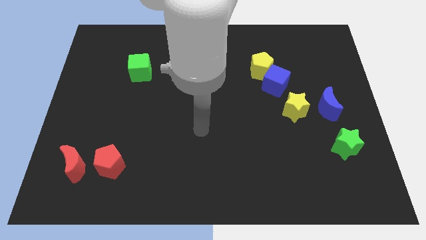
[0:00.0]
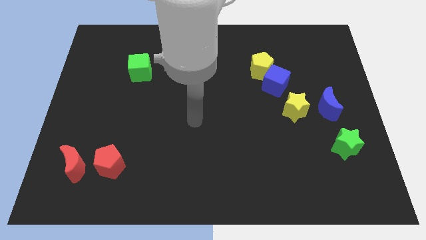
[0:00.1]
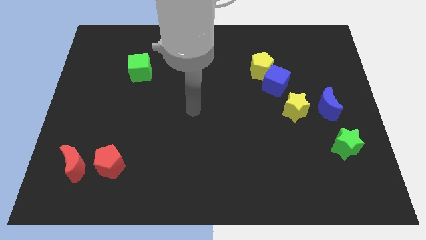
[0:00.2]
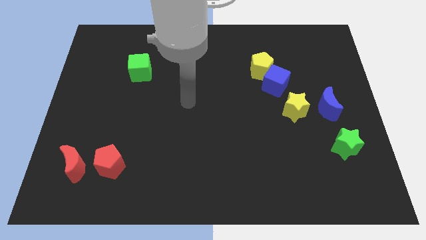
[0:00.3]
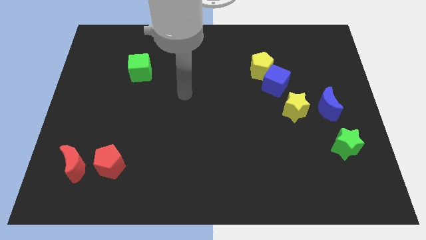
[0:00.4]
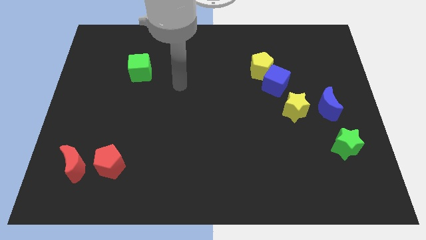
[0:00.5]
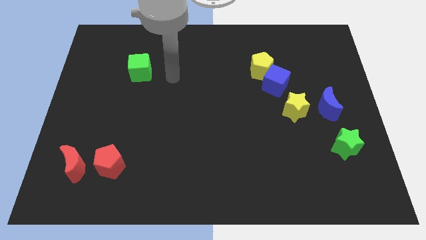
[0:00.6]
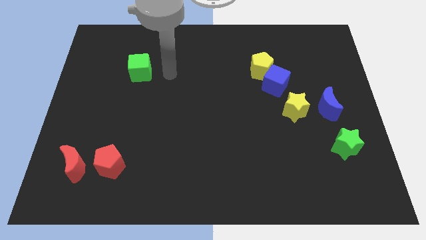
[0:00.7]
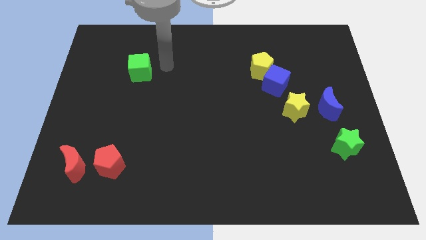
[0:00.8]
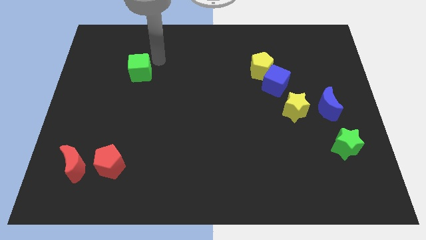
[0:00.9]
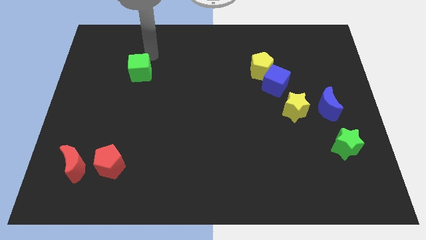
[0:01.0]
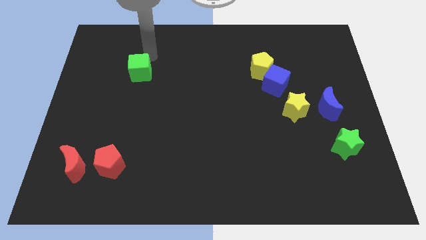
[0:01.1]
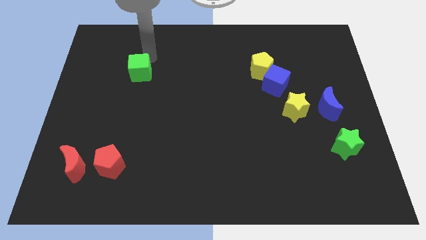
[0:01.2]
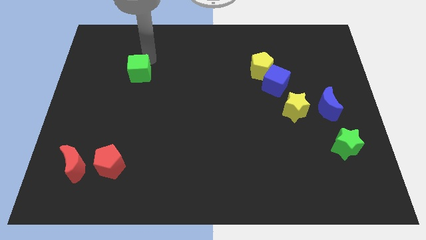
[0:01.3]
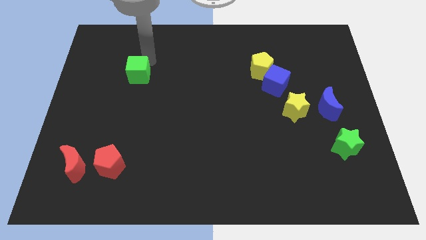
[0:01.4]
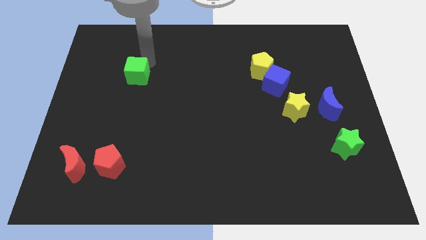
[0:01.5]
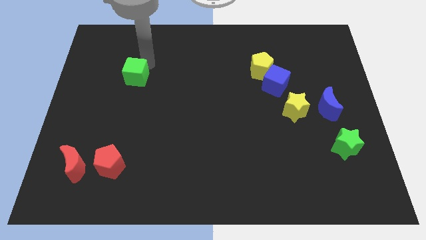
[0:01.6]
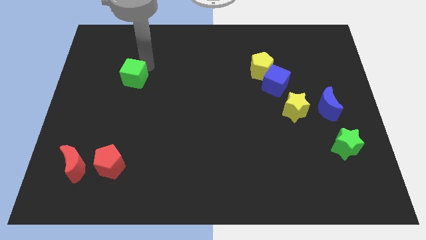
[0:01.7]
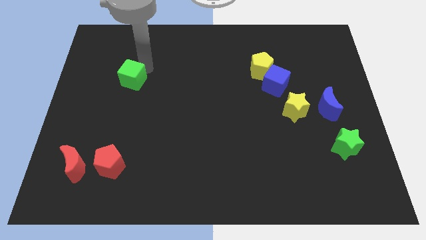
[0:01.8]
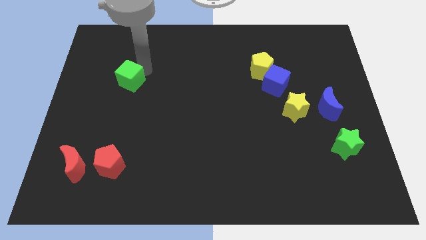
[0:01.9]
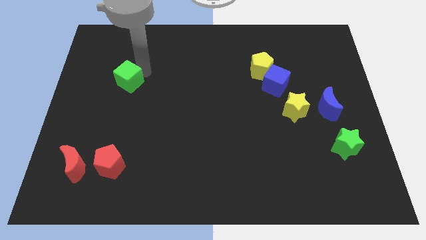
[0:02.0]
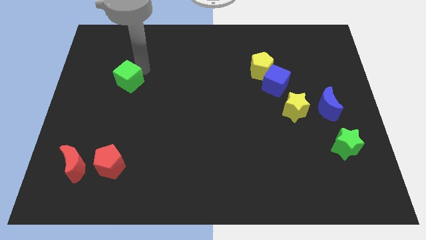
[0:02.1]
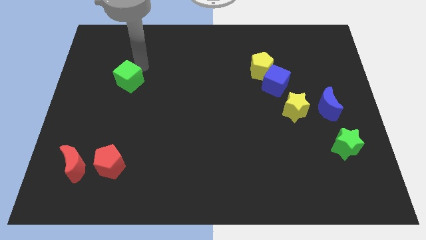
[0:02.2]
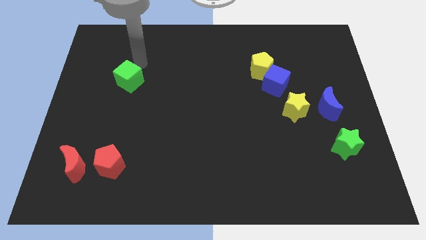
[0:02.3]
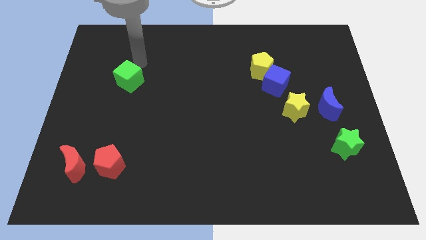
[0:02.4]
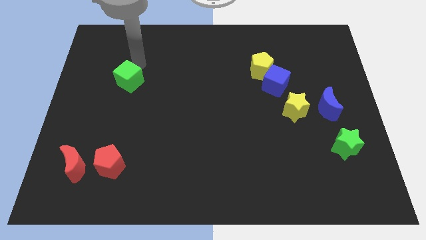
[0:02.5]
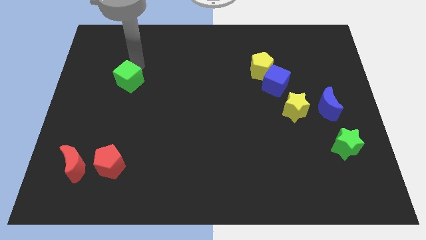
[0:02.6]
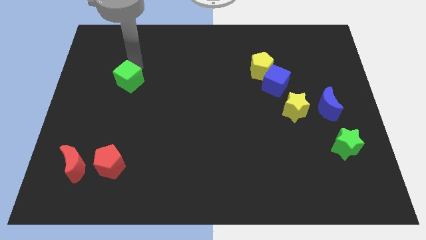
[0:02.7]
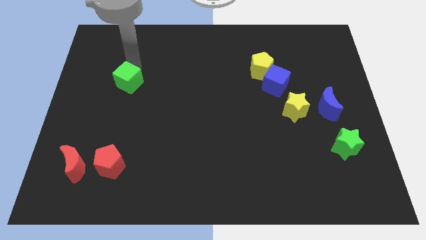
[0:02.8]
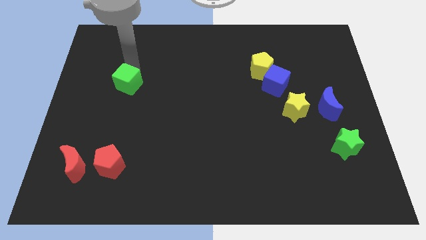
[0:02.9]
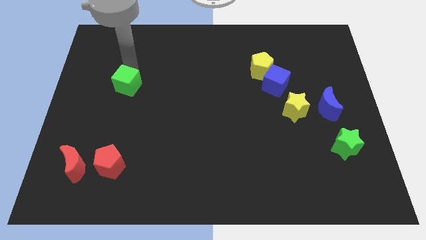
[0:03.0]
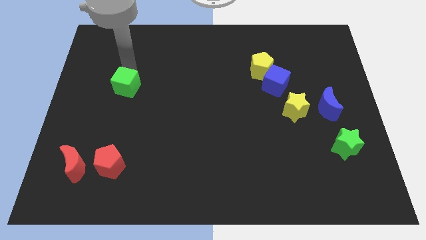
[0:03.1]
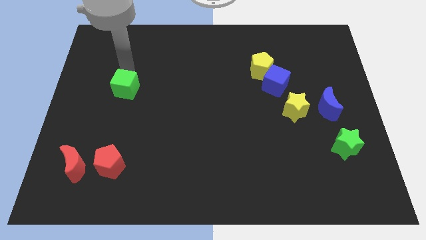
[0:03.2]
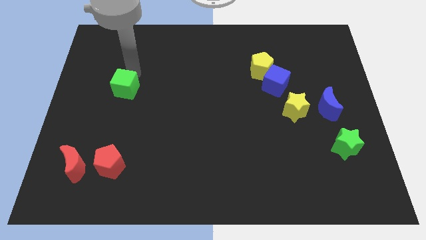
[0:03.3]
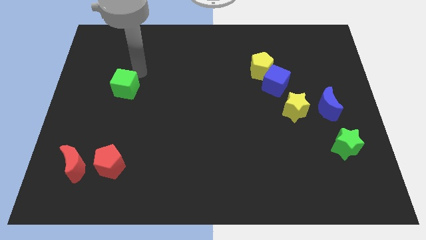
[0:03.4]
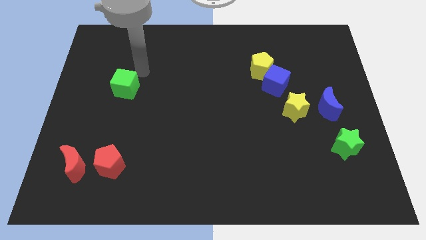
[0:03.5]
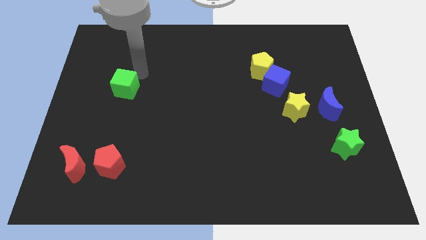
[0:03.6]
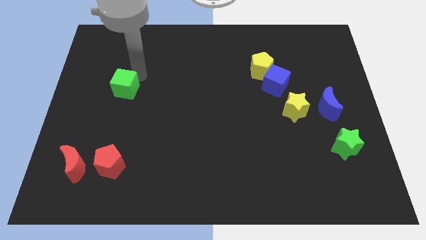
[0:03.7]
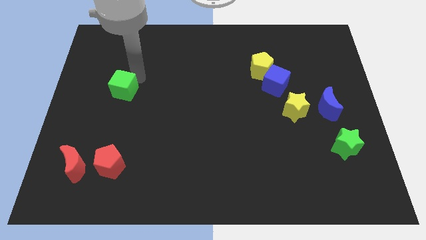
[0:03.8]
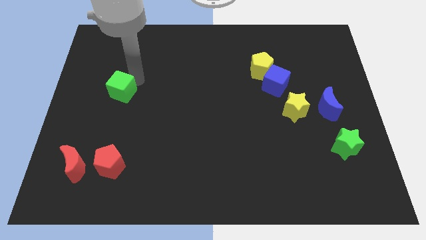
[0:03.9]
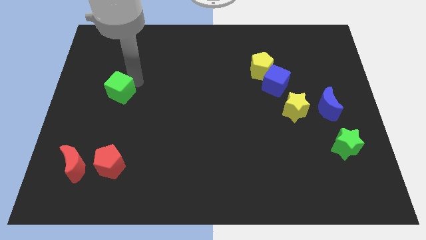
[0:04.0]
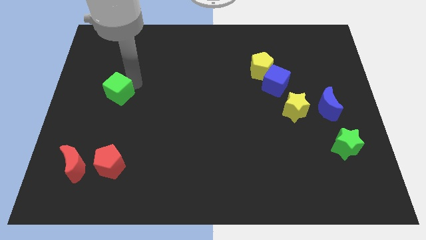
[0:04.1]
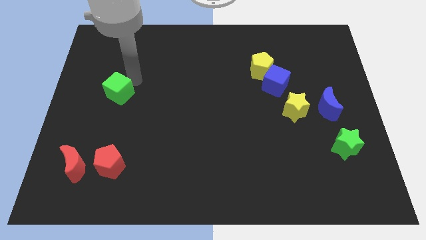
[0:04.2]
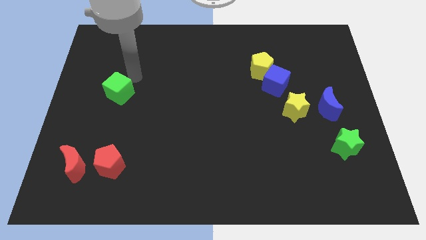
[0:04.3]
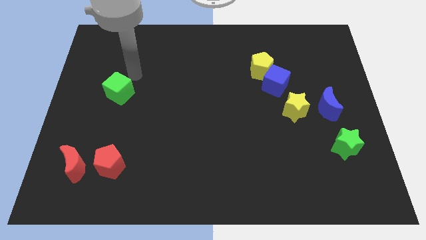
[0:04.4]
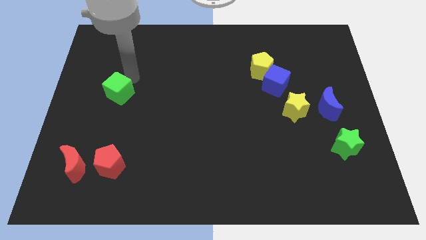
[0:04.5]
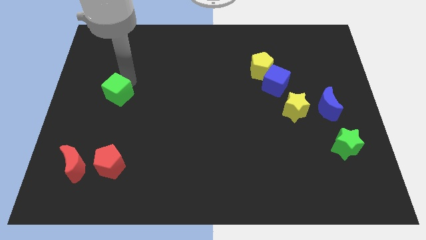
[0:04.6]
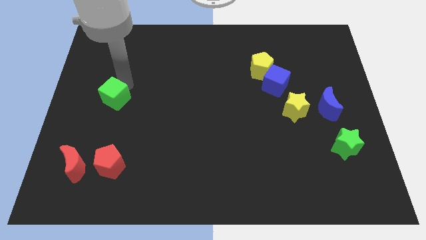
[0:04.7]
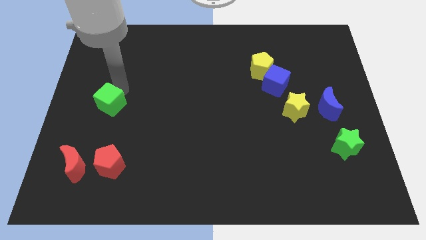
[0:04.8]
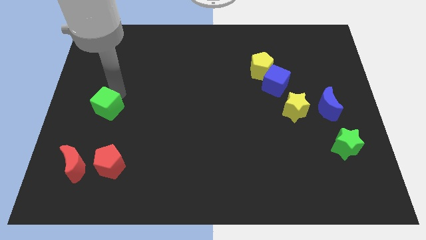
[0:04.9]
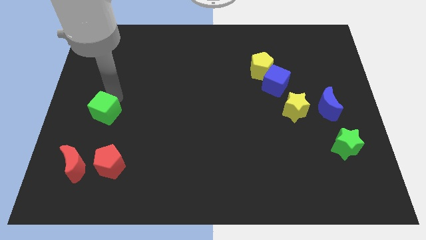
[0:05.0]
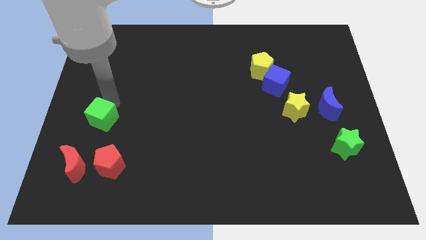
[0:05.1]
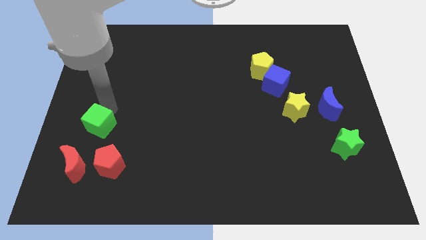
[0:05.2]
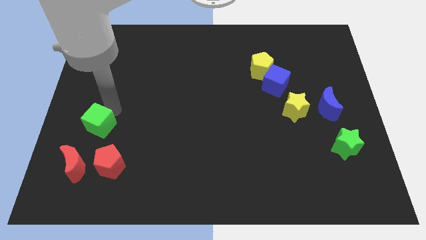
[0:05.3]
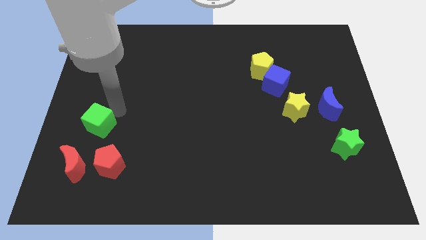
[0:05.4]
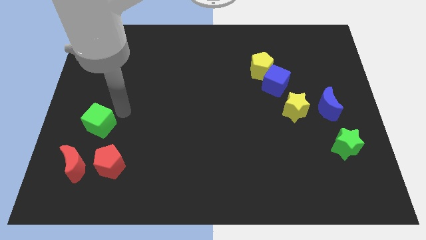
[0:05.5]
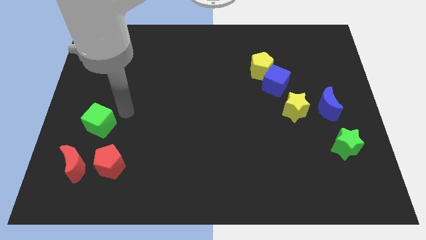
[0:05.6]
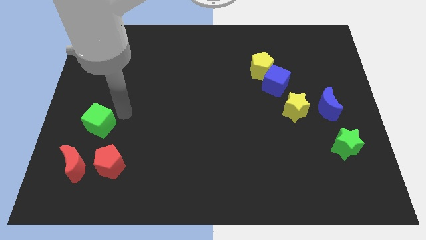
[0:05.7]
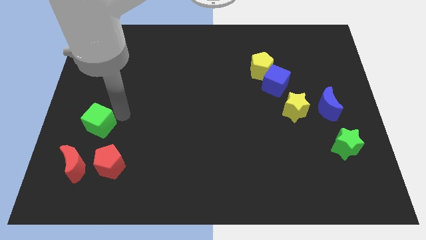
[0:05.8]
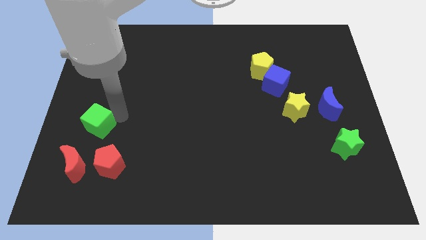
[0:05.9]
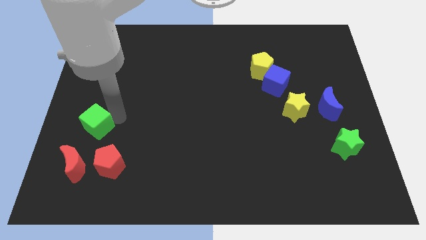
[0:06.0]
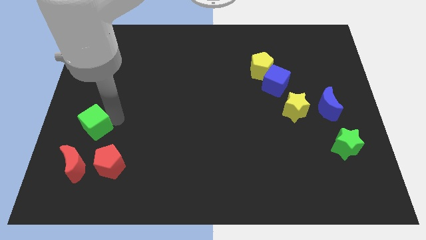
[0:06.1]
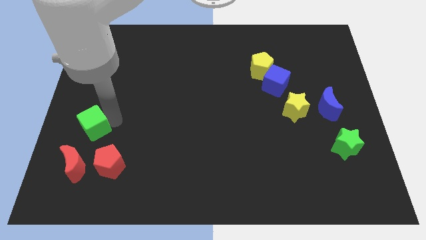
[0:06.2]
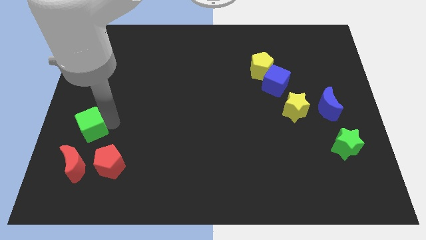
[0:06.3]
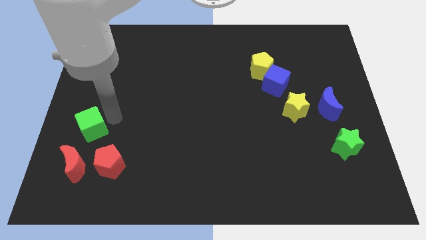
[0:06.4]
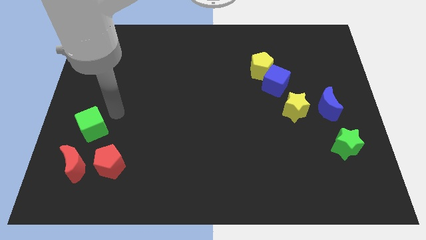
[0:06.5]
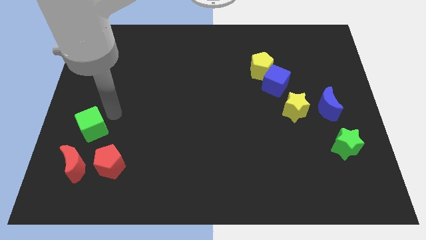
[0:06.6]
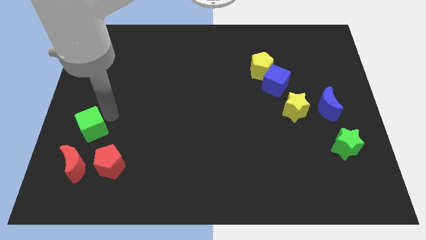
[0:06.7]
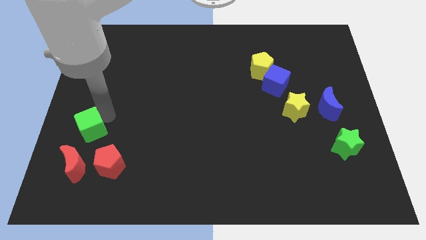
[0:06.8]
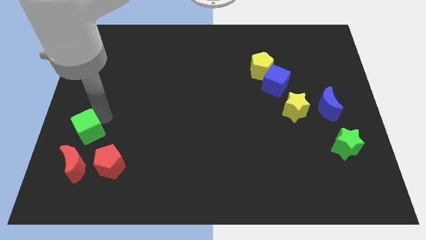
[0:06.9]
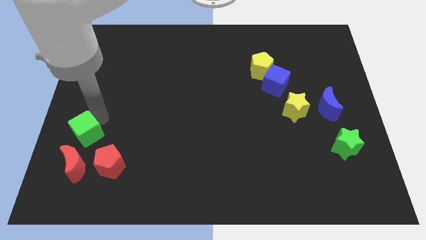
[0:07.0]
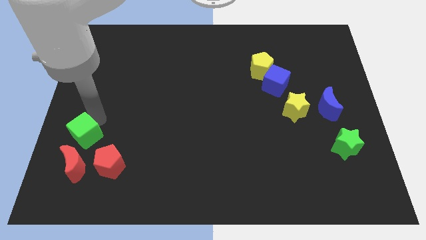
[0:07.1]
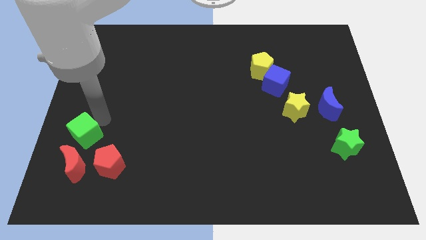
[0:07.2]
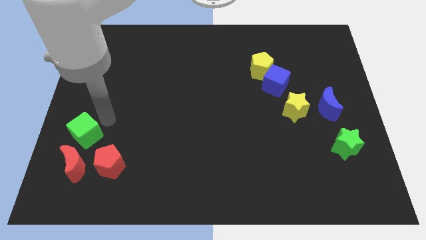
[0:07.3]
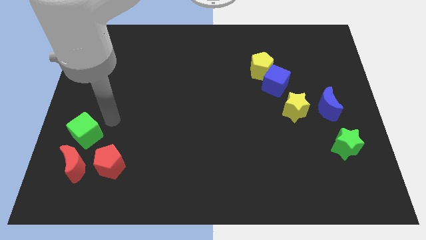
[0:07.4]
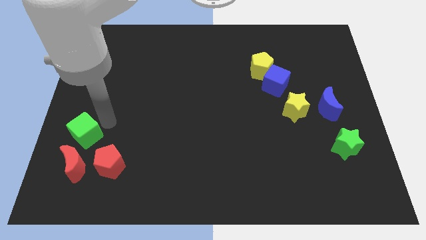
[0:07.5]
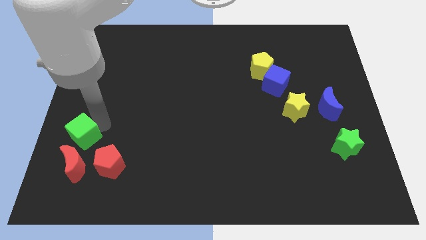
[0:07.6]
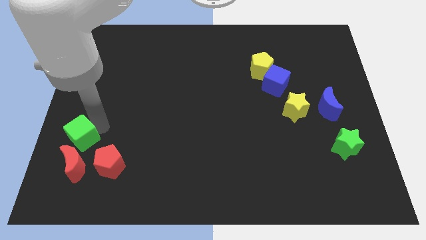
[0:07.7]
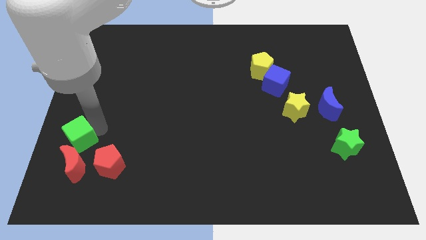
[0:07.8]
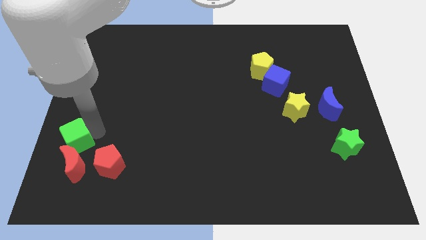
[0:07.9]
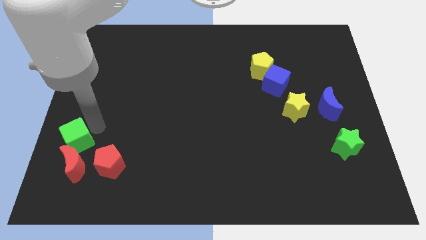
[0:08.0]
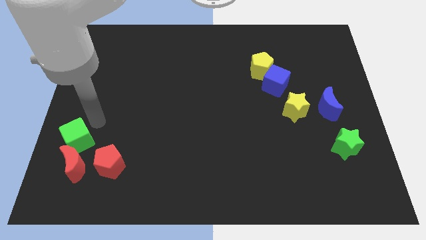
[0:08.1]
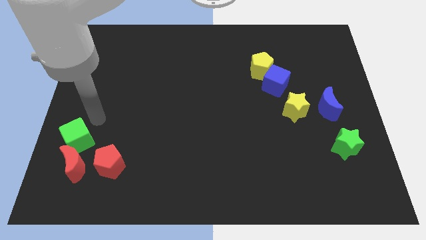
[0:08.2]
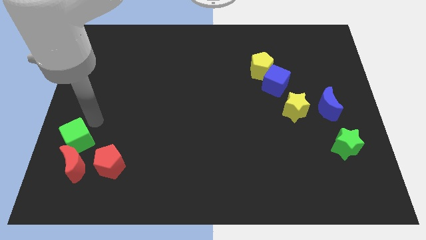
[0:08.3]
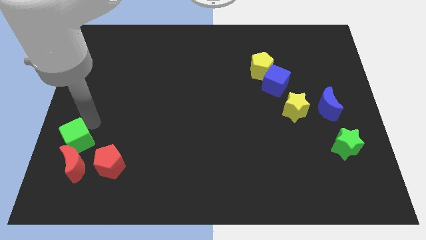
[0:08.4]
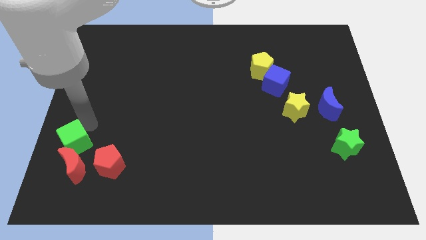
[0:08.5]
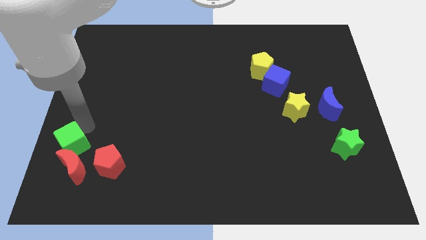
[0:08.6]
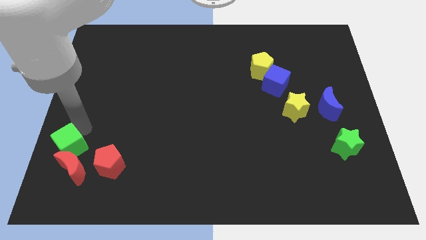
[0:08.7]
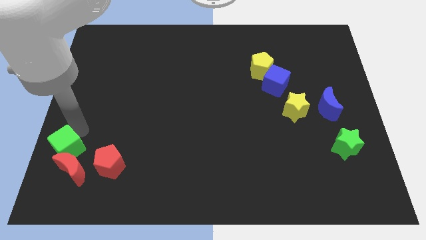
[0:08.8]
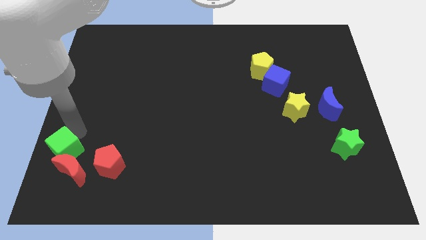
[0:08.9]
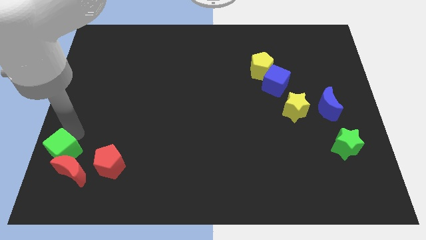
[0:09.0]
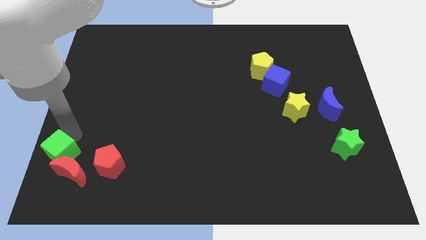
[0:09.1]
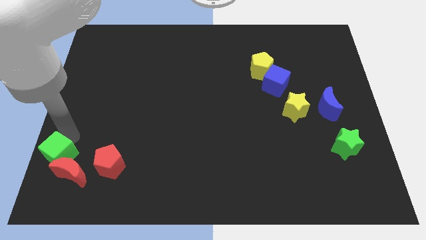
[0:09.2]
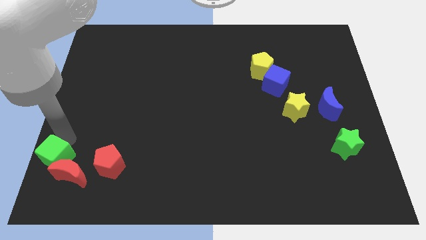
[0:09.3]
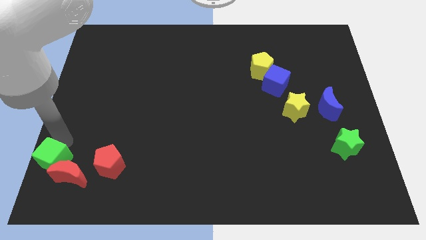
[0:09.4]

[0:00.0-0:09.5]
put the green cube to the lower left corner
